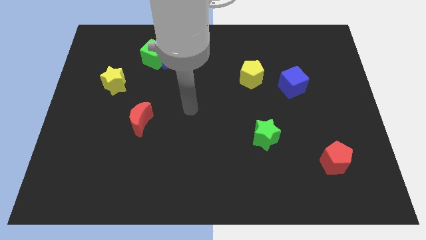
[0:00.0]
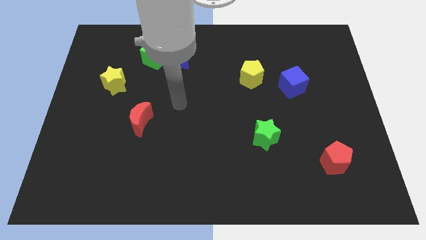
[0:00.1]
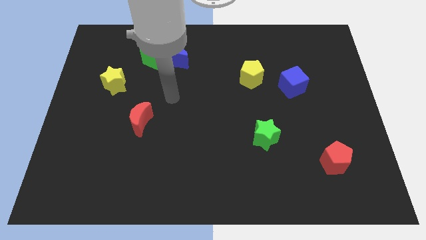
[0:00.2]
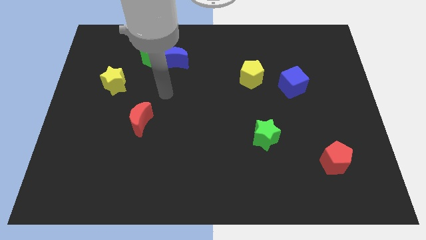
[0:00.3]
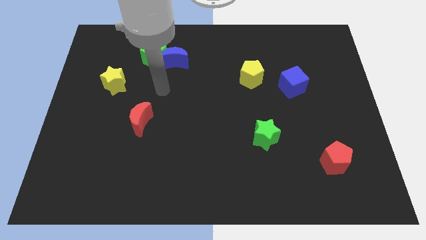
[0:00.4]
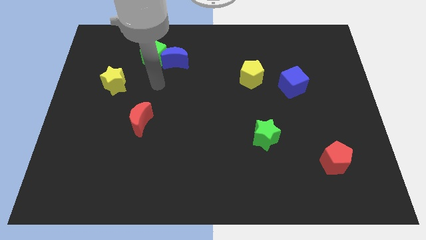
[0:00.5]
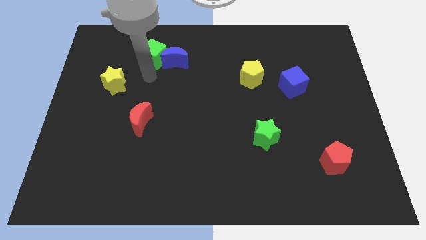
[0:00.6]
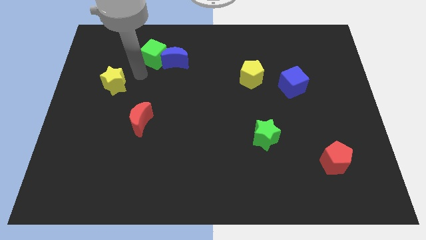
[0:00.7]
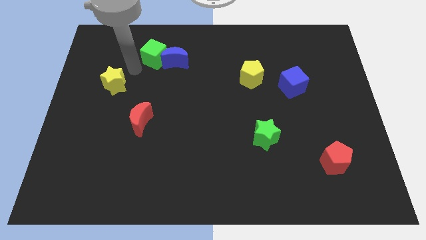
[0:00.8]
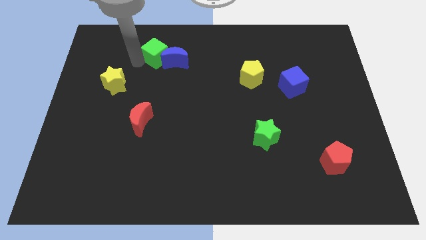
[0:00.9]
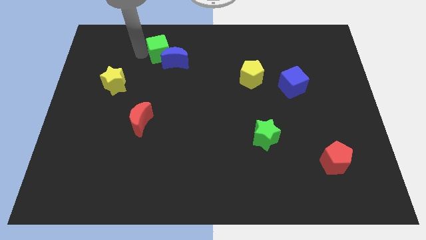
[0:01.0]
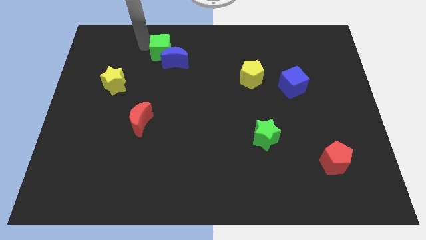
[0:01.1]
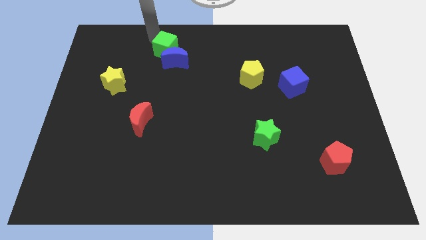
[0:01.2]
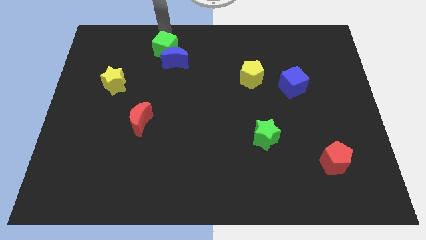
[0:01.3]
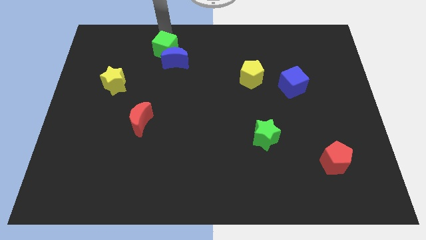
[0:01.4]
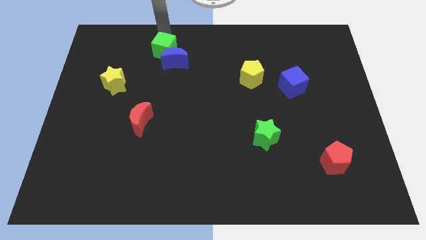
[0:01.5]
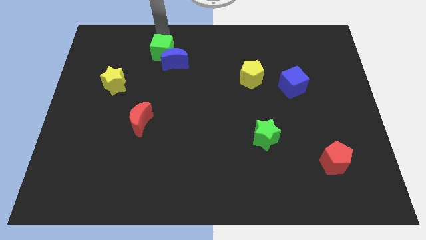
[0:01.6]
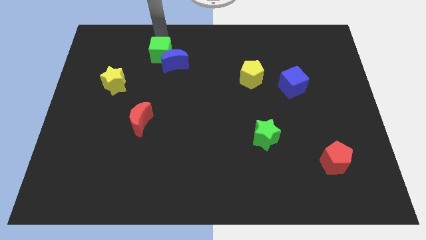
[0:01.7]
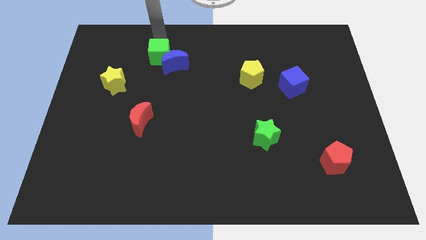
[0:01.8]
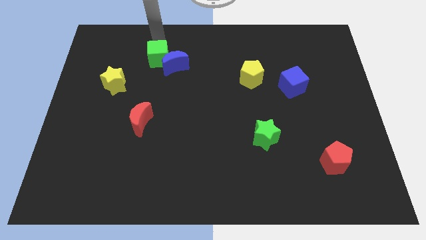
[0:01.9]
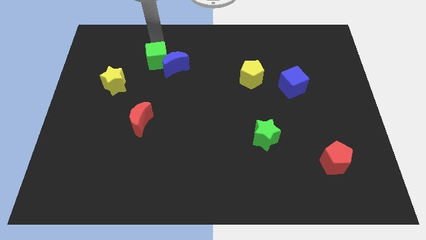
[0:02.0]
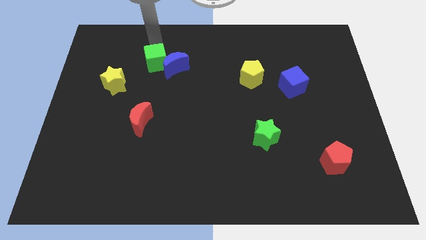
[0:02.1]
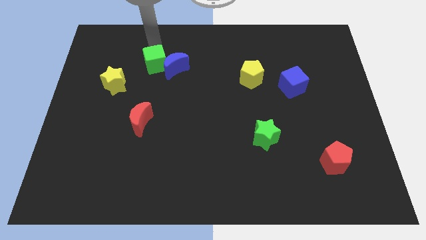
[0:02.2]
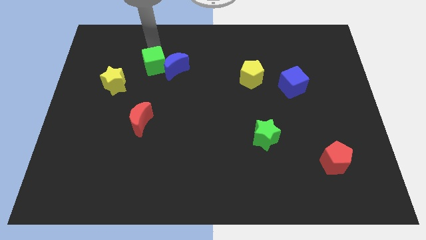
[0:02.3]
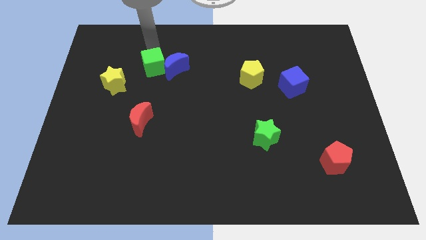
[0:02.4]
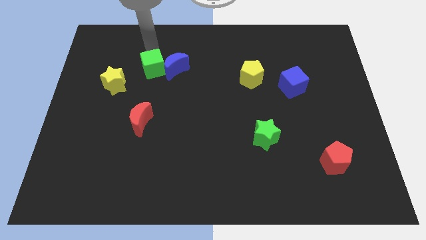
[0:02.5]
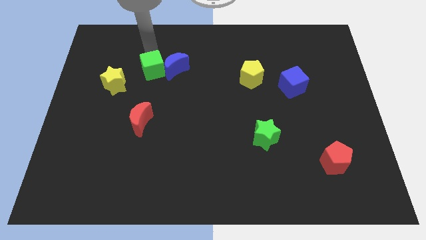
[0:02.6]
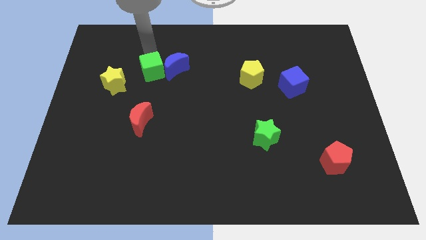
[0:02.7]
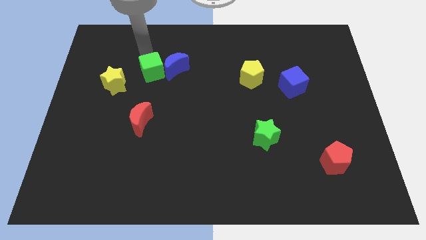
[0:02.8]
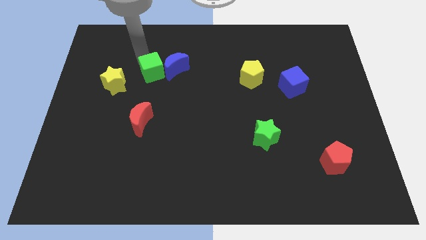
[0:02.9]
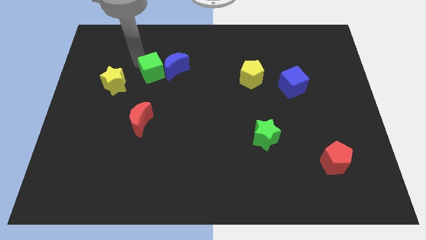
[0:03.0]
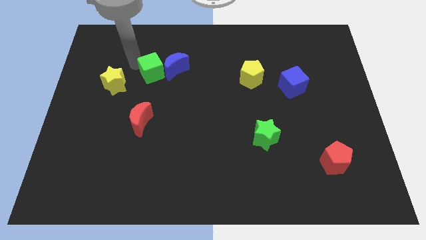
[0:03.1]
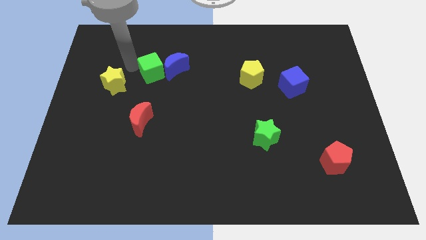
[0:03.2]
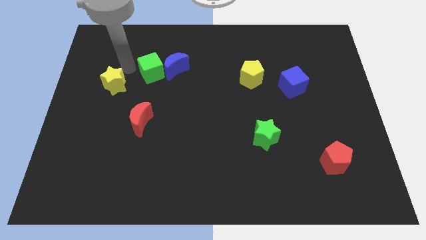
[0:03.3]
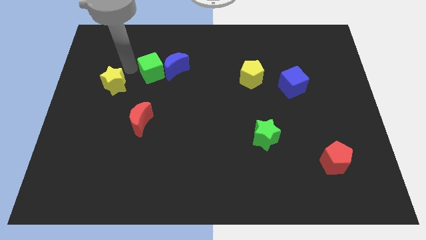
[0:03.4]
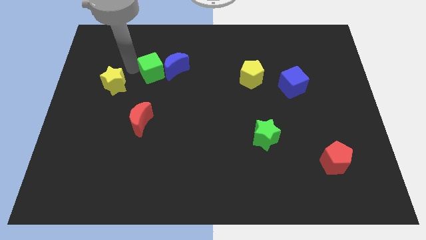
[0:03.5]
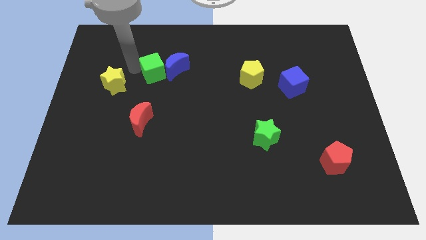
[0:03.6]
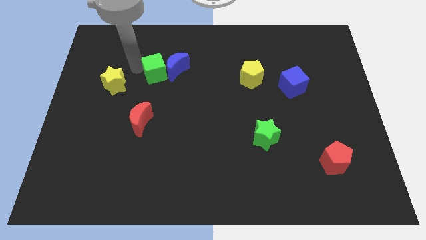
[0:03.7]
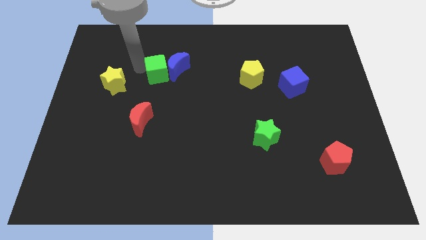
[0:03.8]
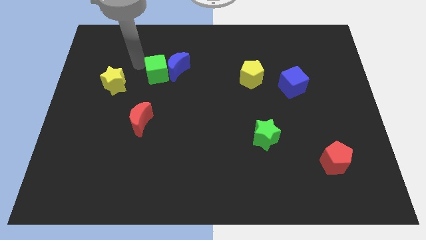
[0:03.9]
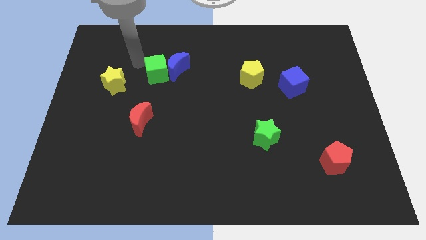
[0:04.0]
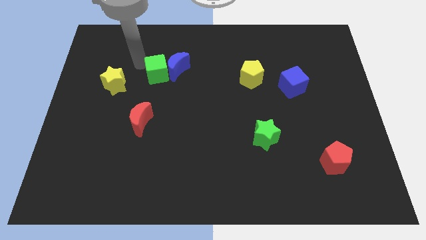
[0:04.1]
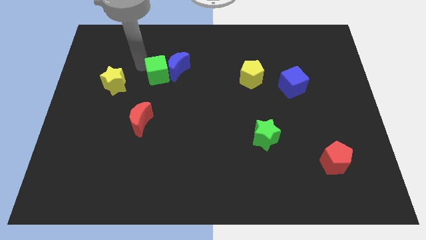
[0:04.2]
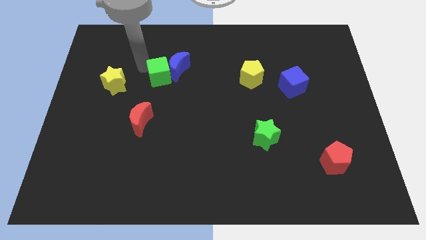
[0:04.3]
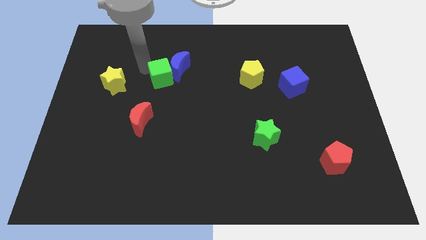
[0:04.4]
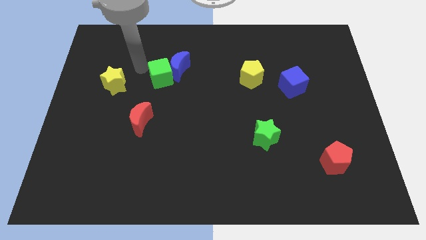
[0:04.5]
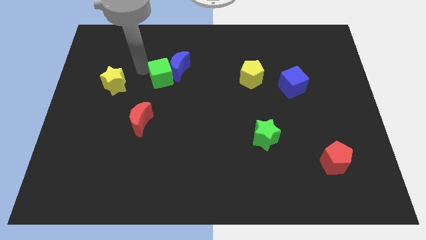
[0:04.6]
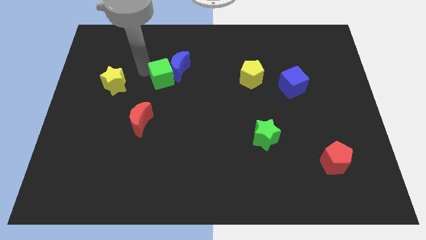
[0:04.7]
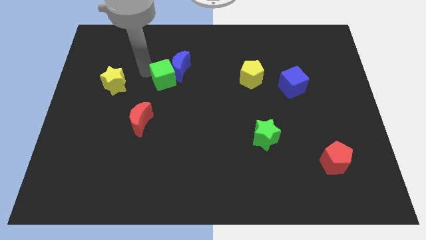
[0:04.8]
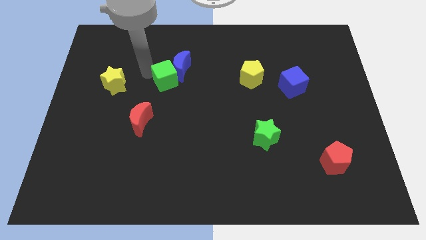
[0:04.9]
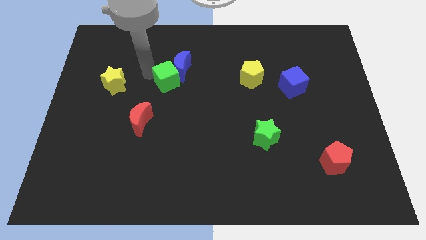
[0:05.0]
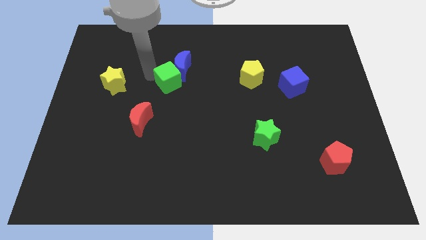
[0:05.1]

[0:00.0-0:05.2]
push the green cube to the middle

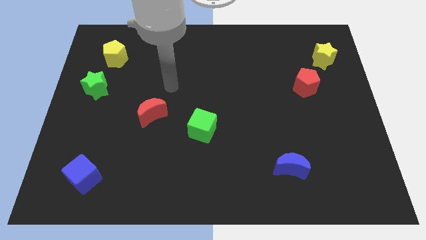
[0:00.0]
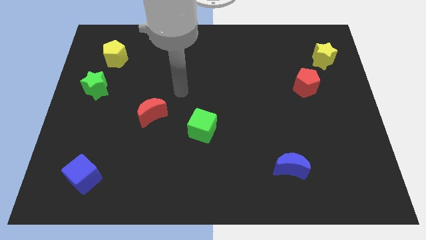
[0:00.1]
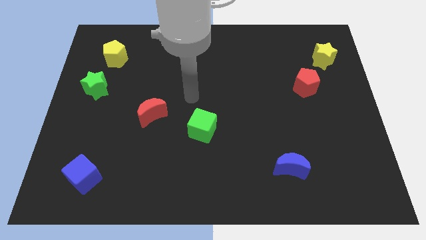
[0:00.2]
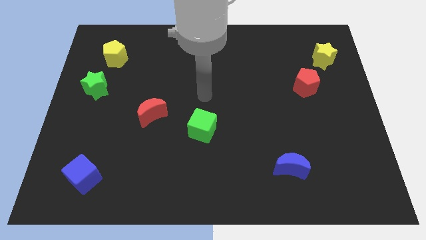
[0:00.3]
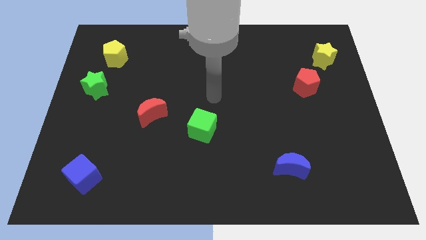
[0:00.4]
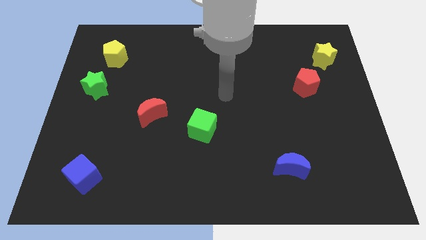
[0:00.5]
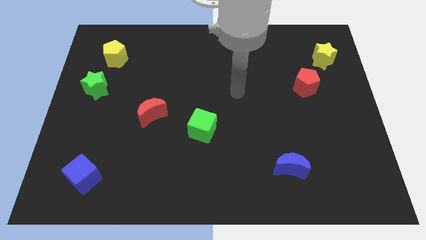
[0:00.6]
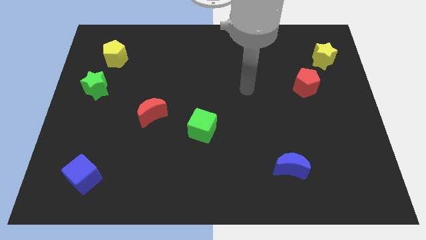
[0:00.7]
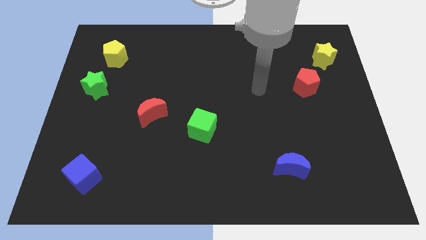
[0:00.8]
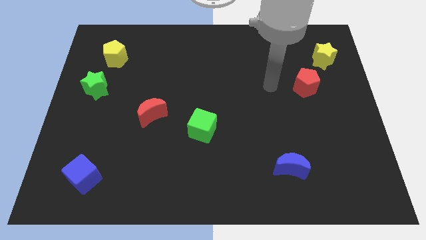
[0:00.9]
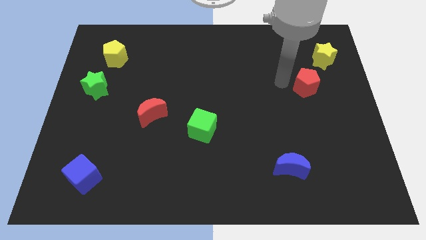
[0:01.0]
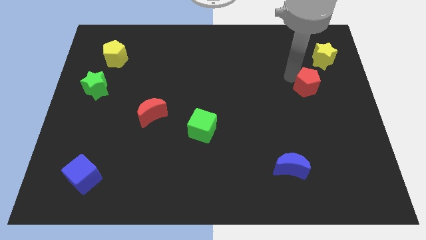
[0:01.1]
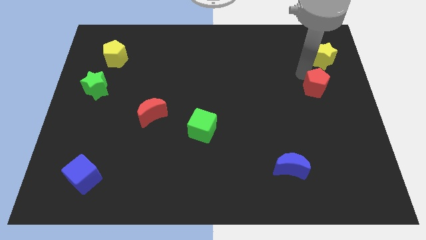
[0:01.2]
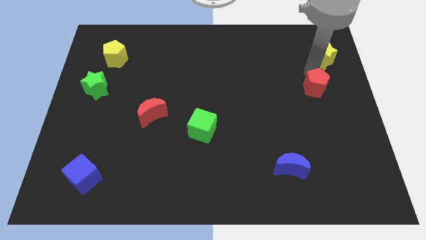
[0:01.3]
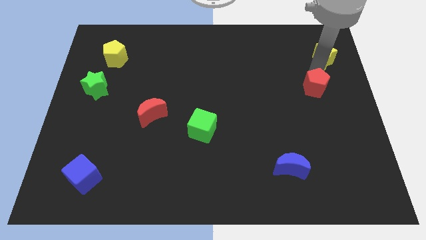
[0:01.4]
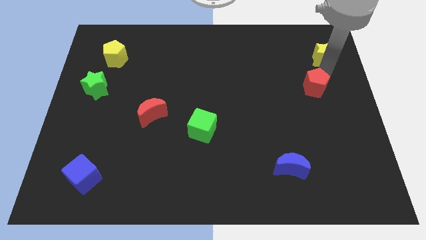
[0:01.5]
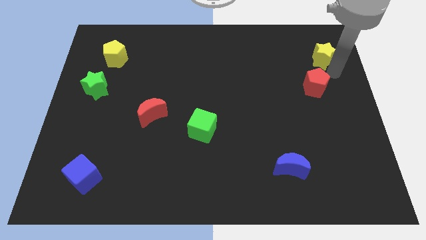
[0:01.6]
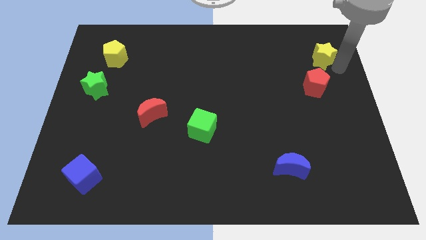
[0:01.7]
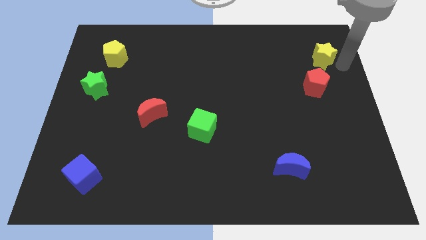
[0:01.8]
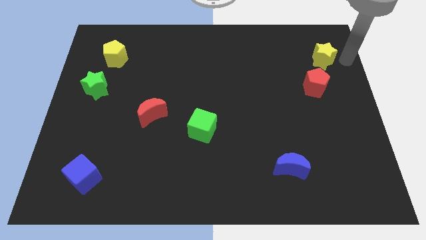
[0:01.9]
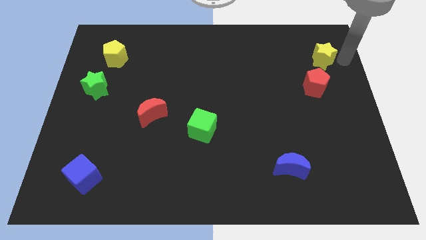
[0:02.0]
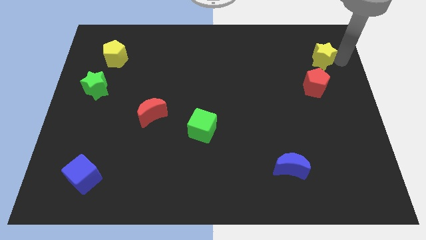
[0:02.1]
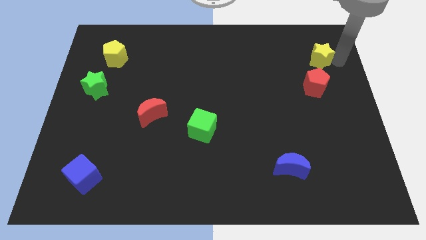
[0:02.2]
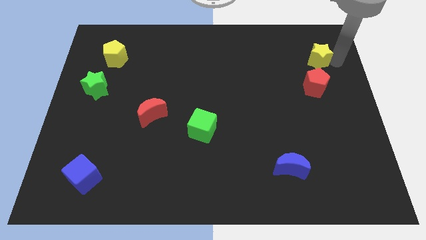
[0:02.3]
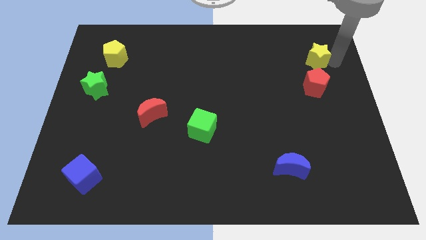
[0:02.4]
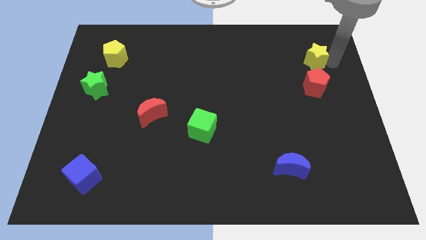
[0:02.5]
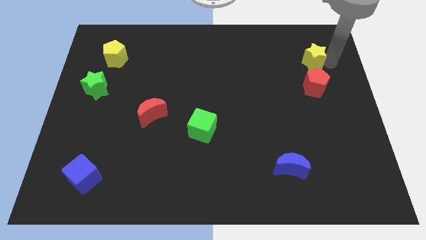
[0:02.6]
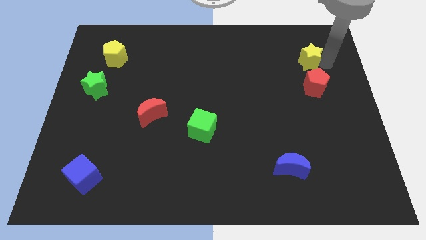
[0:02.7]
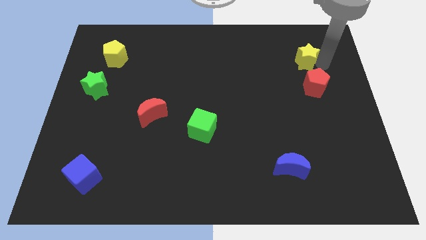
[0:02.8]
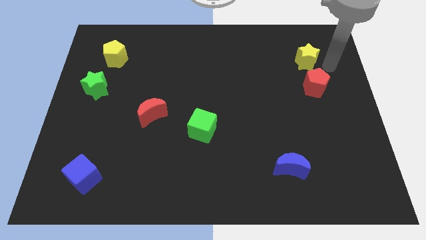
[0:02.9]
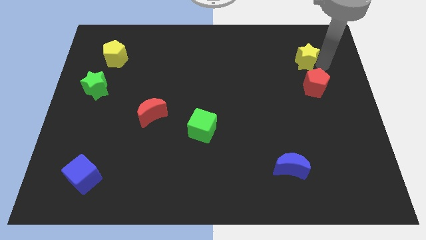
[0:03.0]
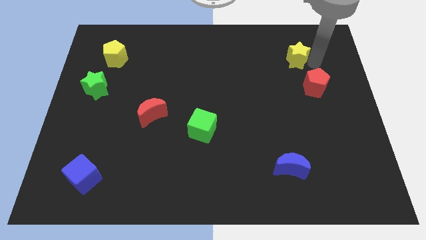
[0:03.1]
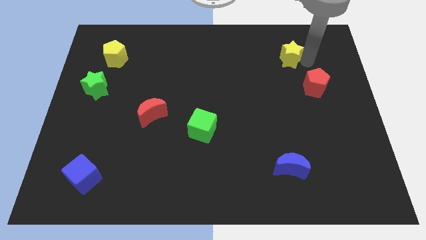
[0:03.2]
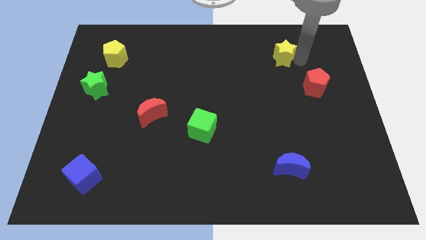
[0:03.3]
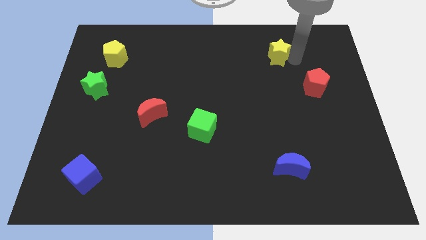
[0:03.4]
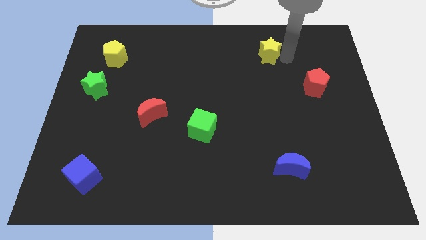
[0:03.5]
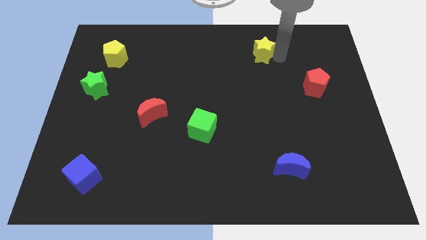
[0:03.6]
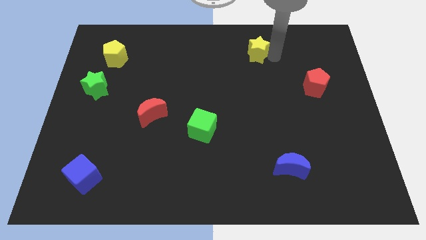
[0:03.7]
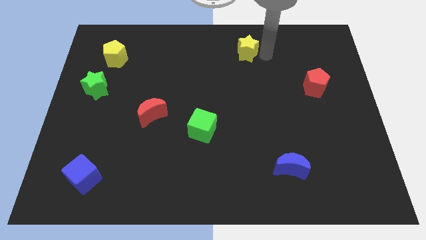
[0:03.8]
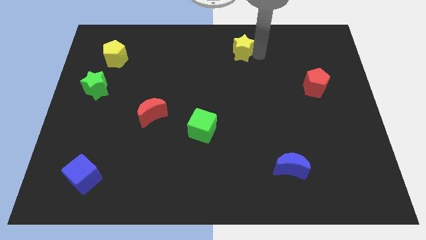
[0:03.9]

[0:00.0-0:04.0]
slide the yellow star to the top side
